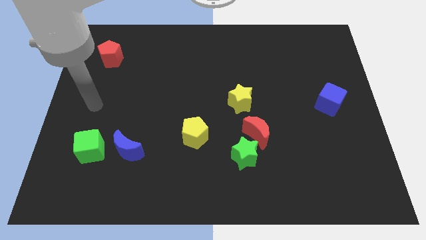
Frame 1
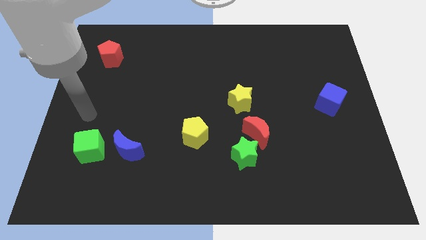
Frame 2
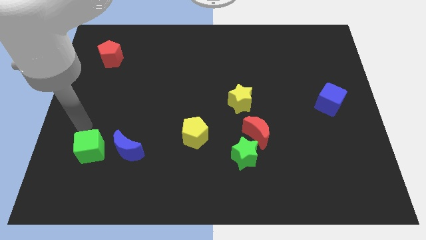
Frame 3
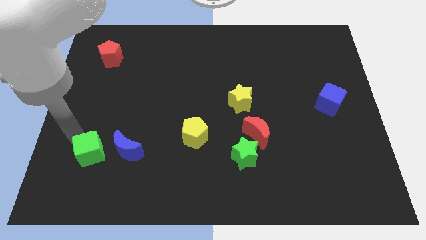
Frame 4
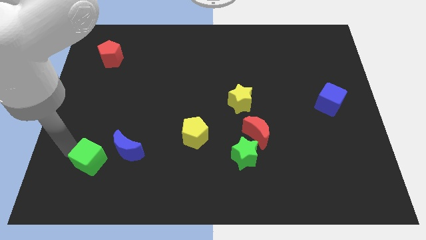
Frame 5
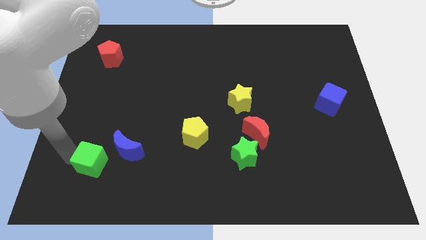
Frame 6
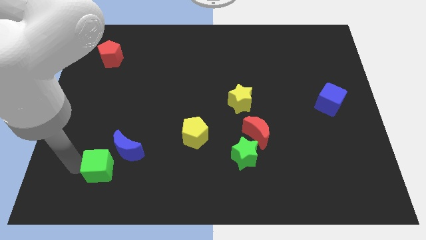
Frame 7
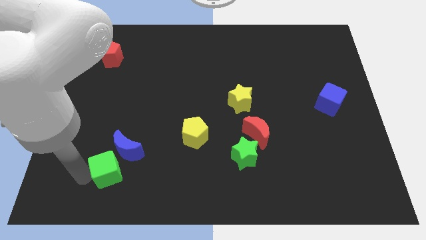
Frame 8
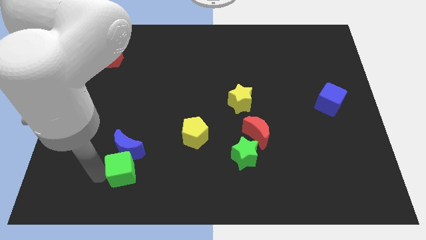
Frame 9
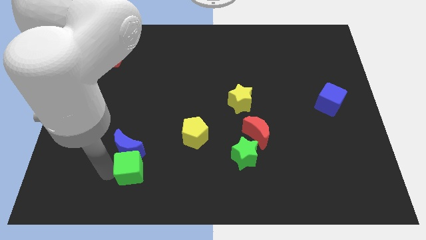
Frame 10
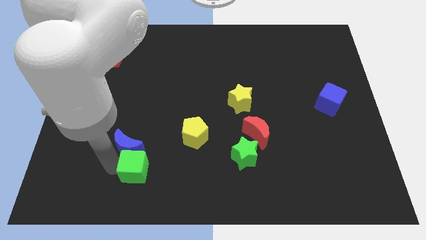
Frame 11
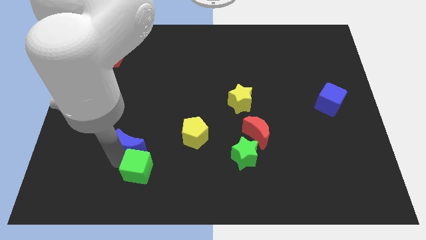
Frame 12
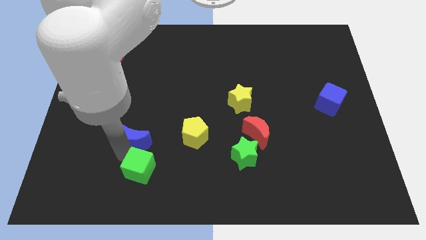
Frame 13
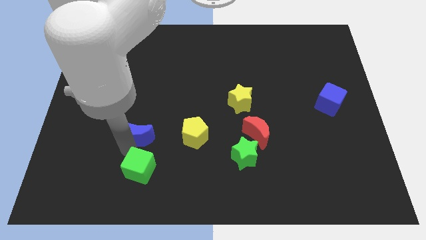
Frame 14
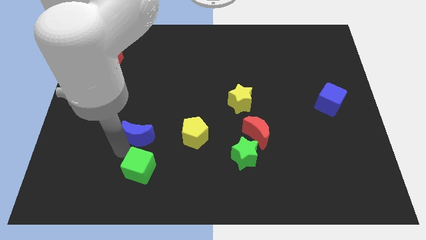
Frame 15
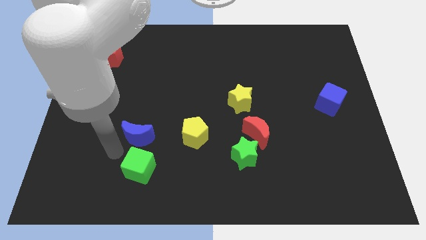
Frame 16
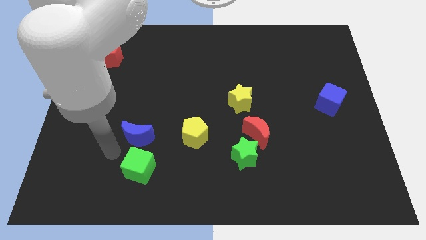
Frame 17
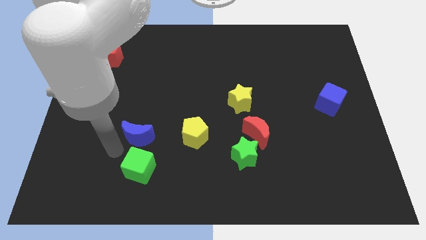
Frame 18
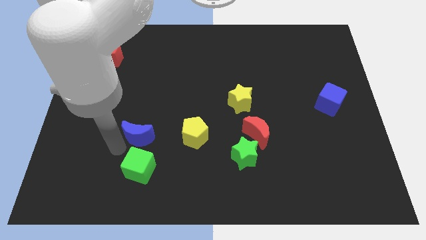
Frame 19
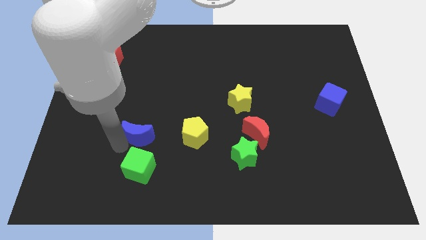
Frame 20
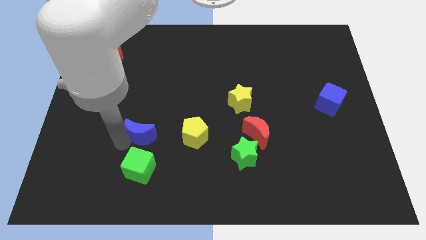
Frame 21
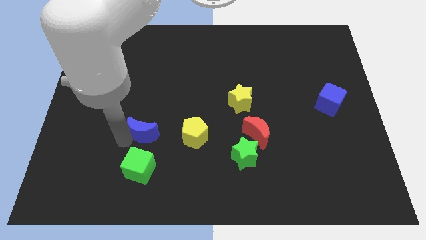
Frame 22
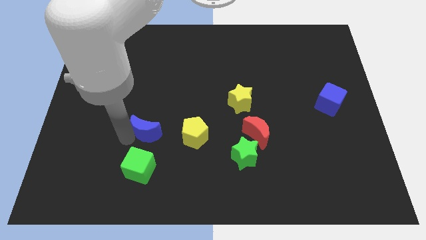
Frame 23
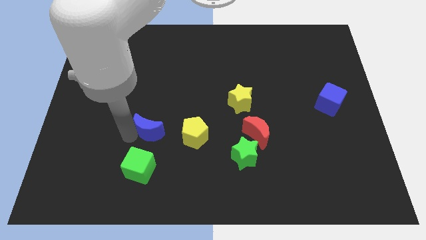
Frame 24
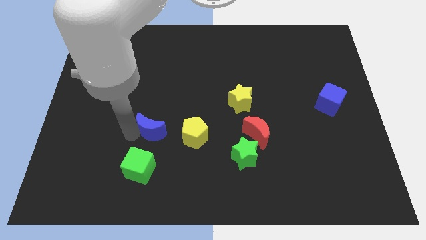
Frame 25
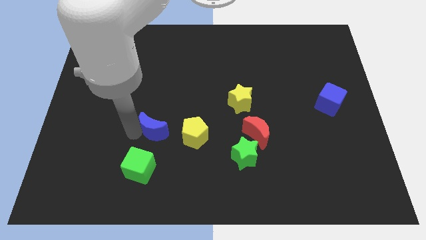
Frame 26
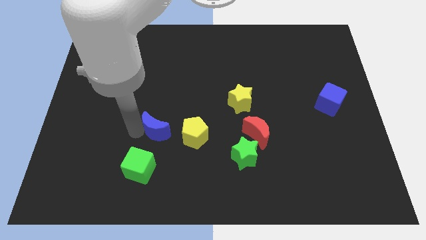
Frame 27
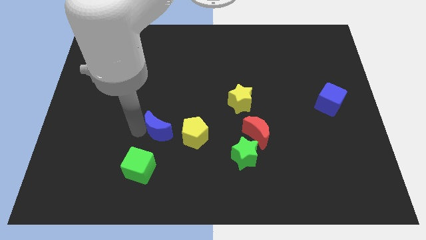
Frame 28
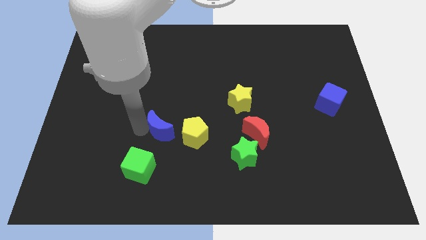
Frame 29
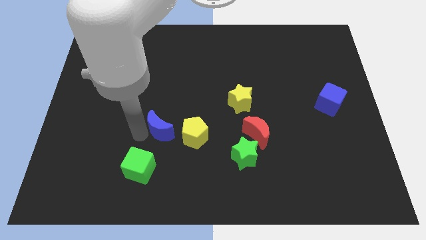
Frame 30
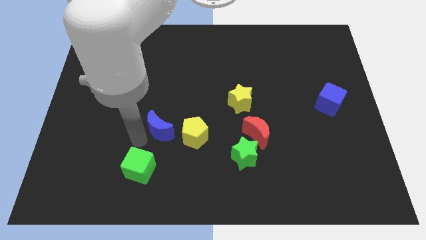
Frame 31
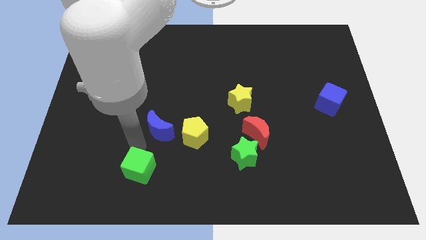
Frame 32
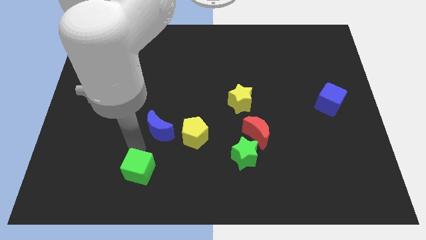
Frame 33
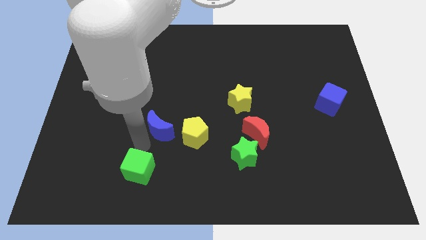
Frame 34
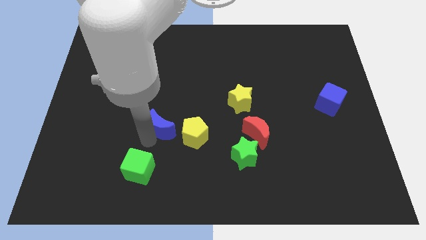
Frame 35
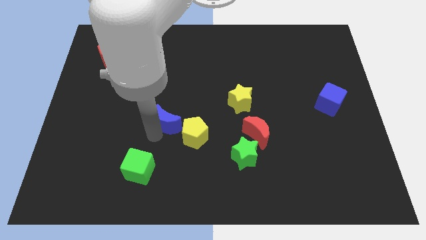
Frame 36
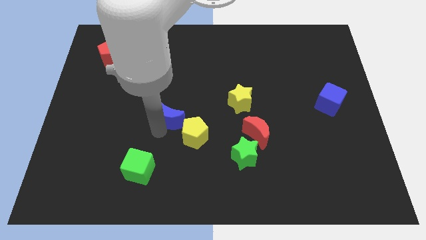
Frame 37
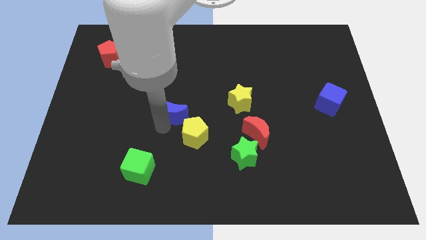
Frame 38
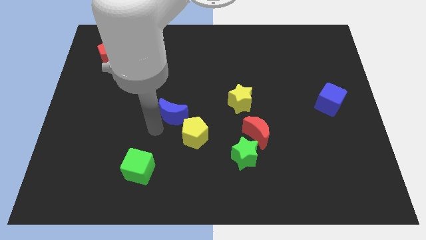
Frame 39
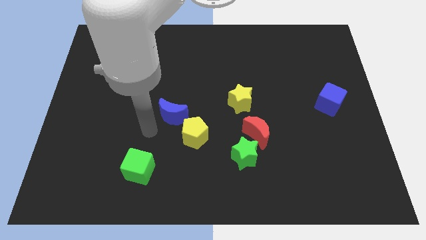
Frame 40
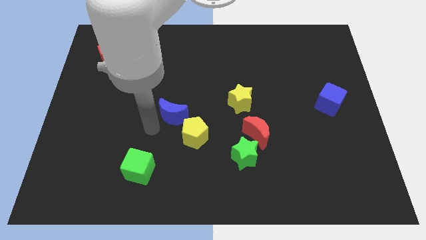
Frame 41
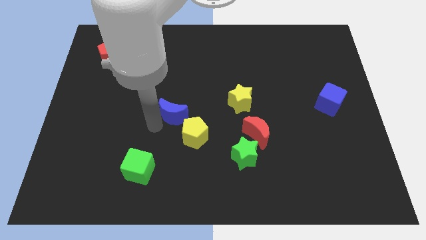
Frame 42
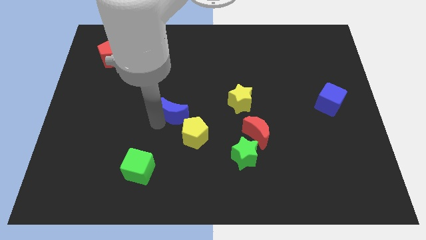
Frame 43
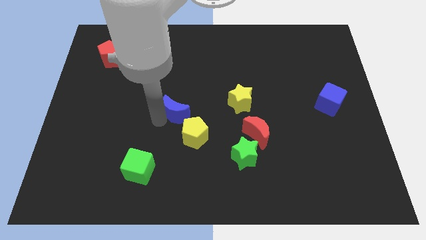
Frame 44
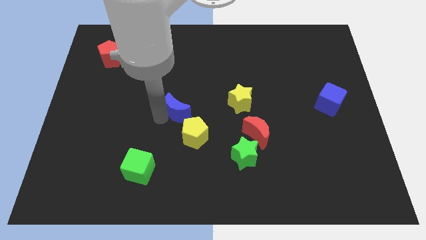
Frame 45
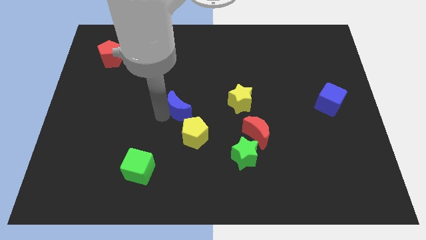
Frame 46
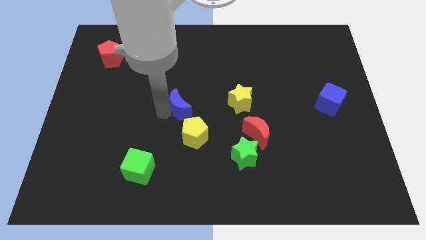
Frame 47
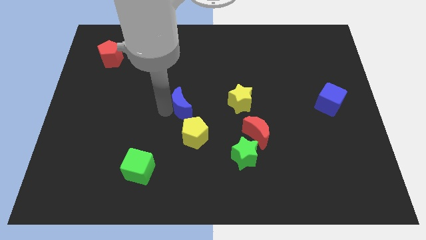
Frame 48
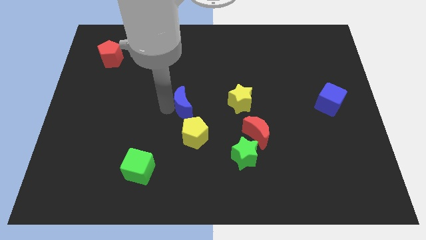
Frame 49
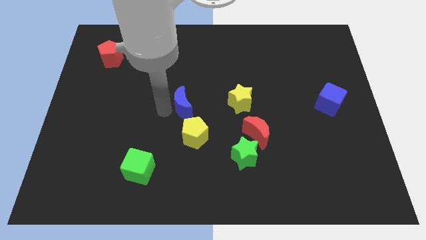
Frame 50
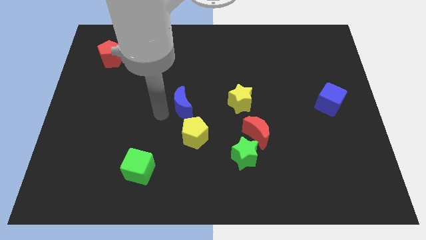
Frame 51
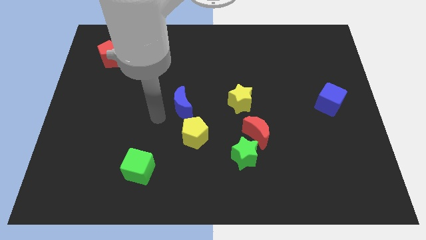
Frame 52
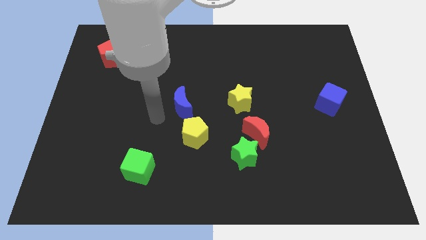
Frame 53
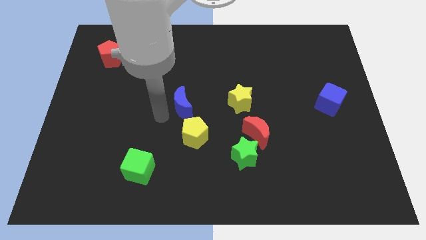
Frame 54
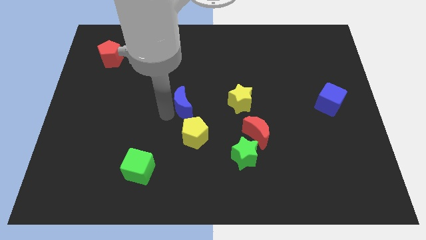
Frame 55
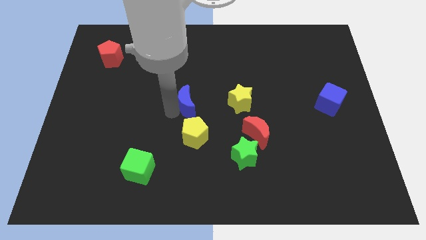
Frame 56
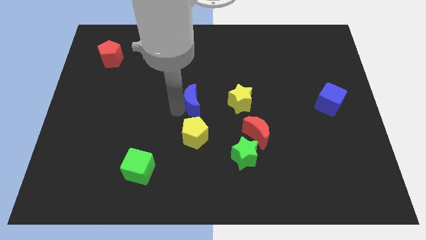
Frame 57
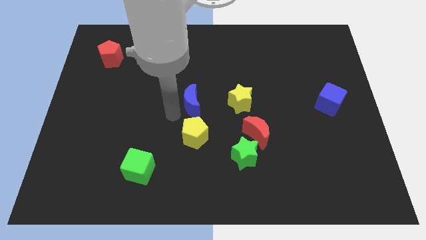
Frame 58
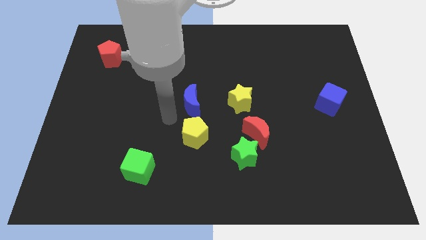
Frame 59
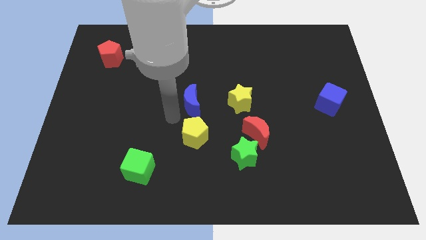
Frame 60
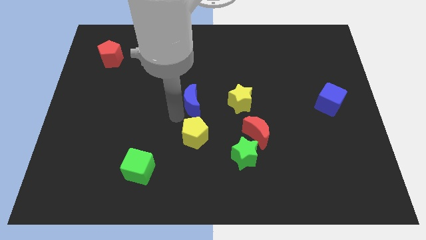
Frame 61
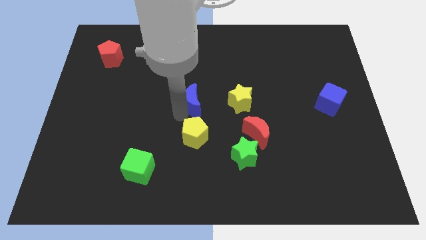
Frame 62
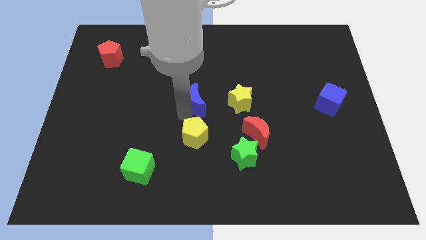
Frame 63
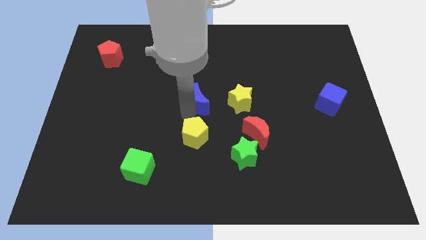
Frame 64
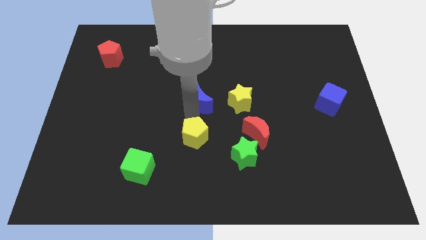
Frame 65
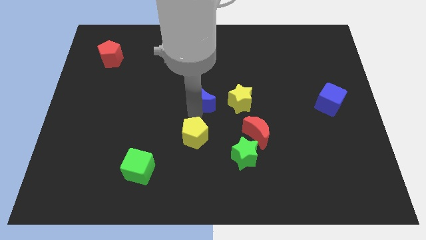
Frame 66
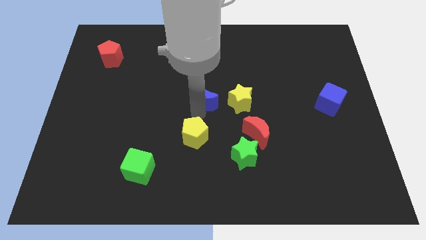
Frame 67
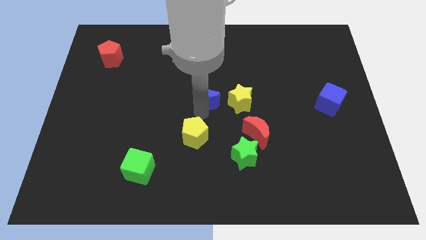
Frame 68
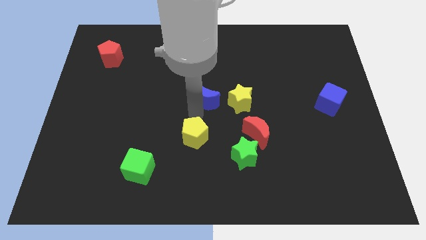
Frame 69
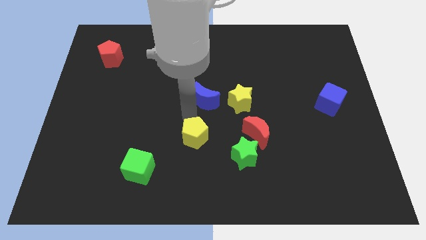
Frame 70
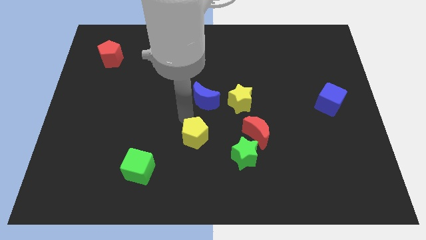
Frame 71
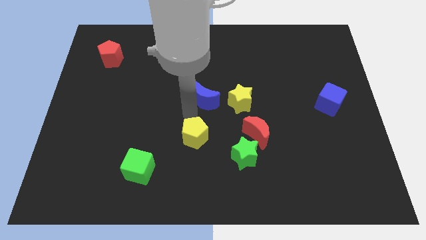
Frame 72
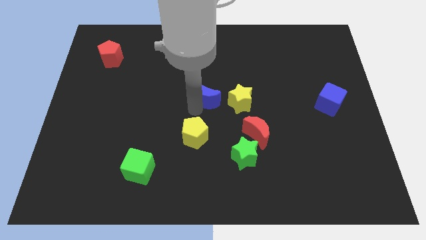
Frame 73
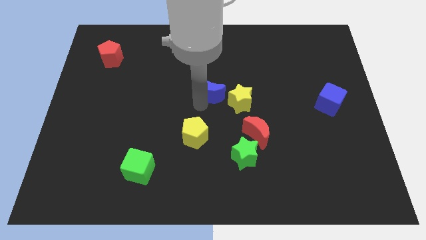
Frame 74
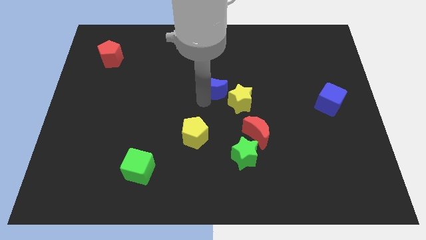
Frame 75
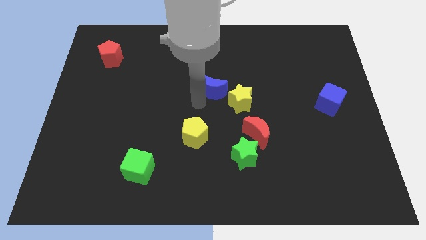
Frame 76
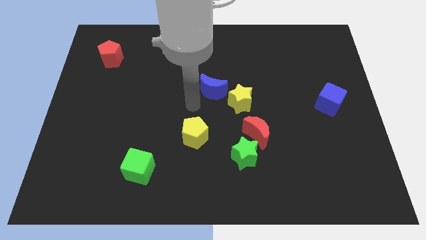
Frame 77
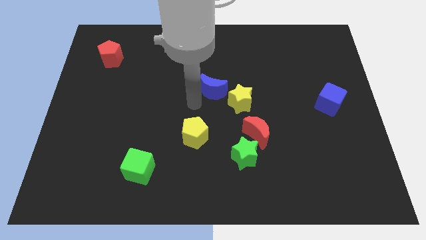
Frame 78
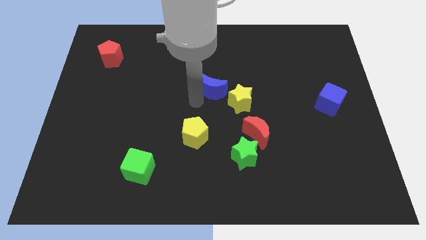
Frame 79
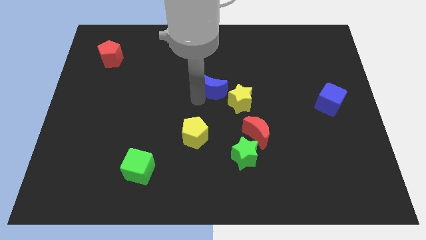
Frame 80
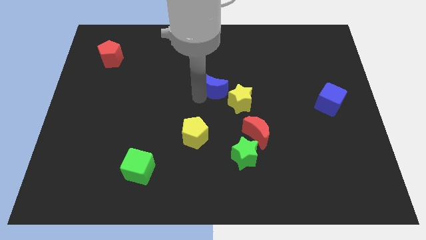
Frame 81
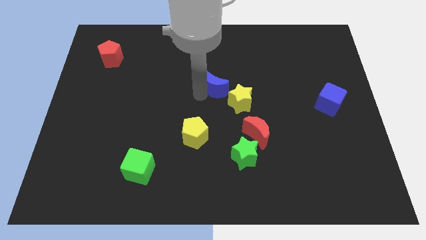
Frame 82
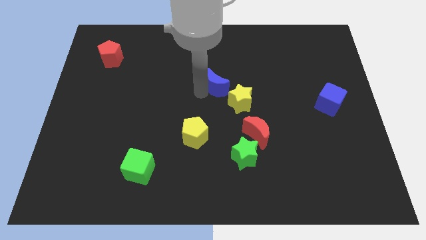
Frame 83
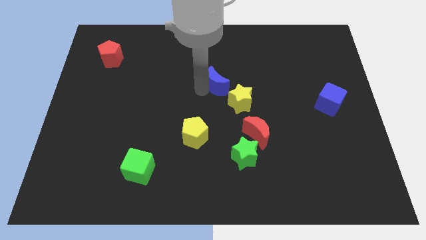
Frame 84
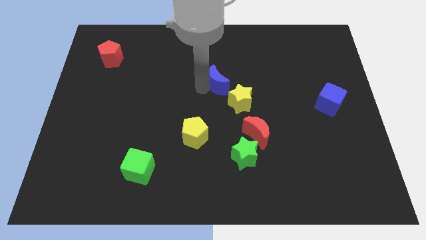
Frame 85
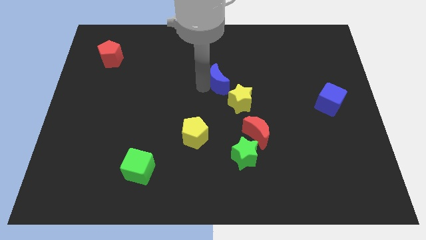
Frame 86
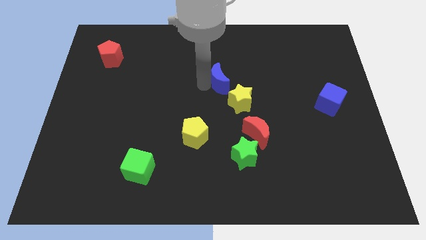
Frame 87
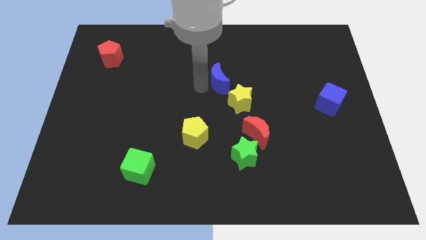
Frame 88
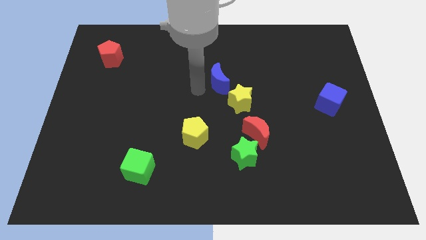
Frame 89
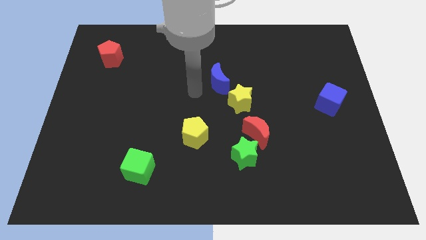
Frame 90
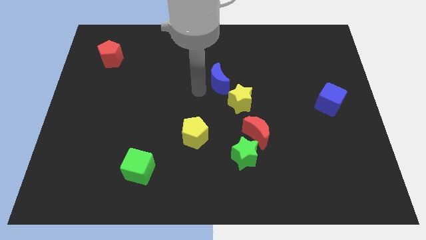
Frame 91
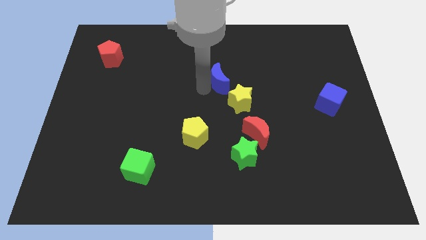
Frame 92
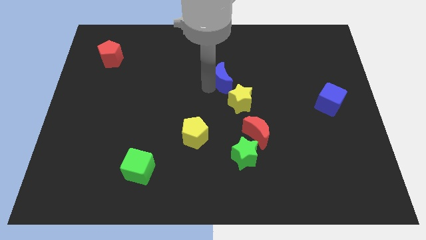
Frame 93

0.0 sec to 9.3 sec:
move the blue moon above the yellow star
